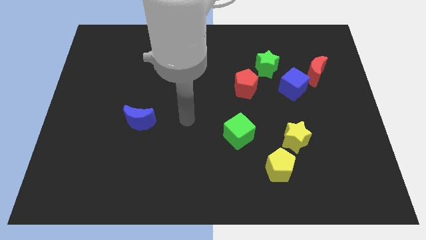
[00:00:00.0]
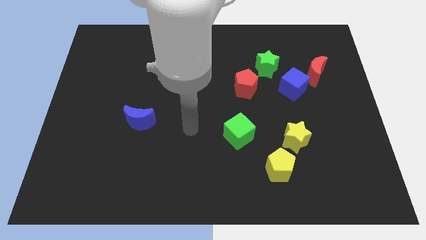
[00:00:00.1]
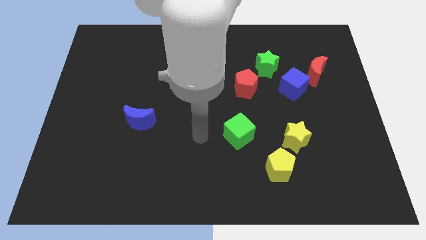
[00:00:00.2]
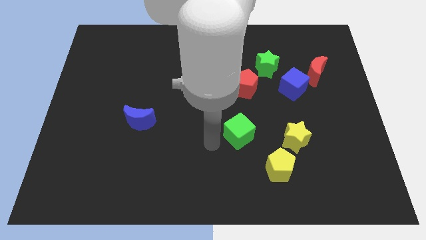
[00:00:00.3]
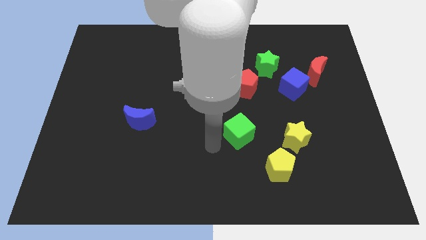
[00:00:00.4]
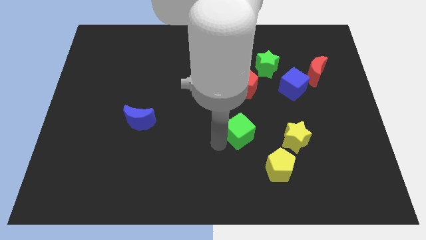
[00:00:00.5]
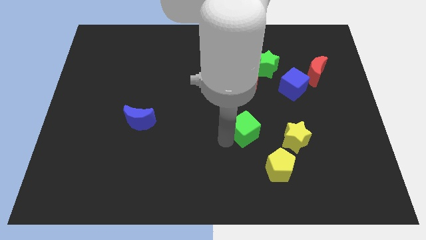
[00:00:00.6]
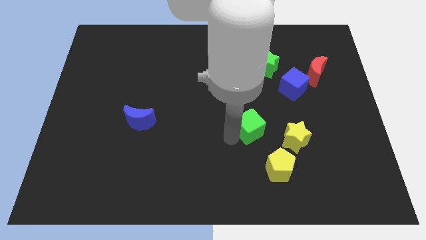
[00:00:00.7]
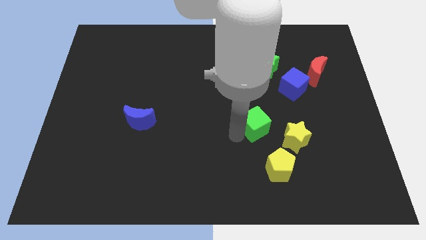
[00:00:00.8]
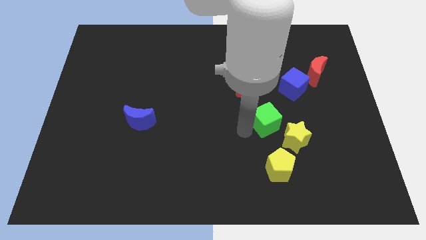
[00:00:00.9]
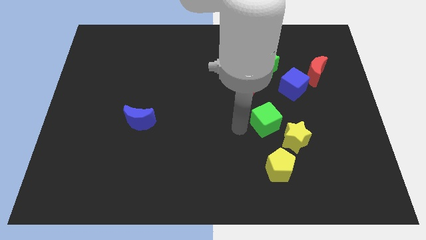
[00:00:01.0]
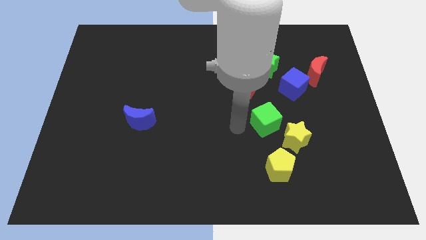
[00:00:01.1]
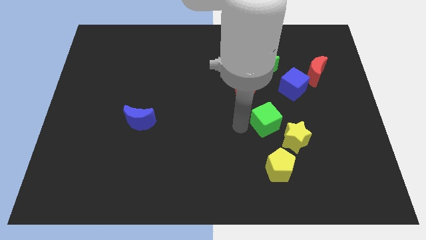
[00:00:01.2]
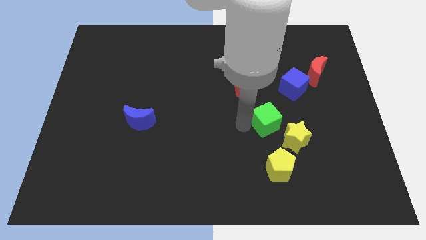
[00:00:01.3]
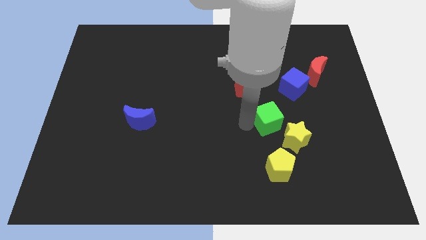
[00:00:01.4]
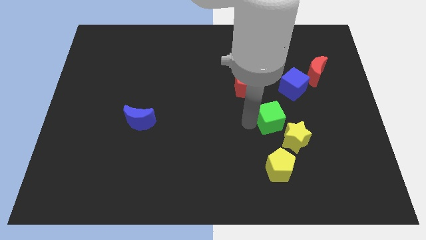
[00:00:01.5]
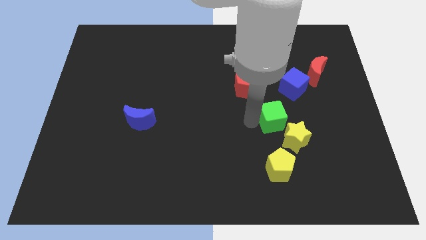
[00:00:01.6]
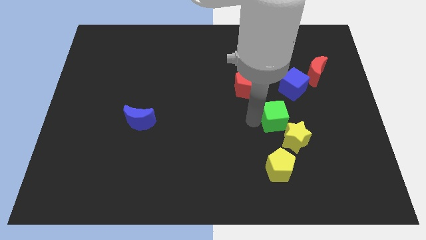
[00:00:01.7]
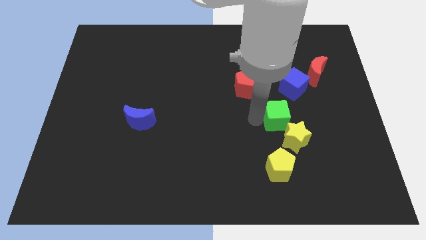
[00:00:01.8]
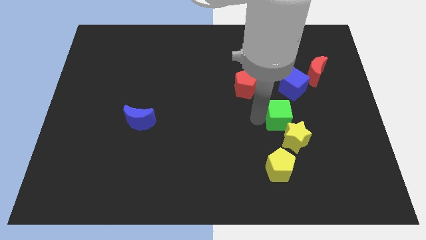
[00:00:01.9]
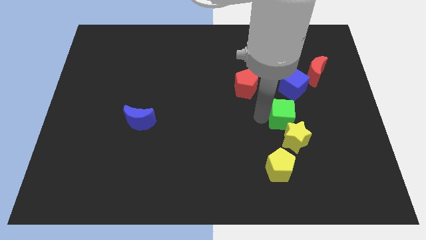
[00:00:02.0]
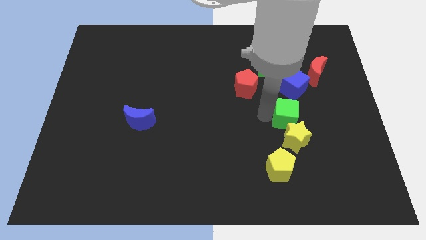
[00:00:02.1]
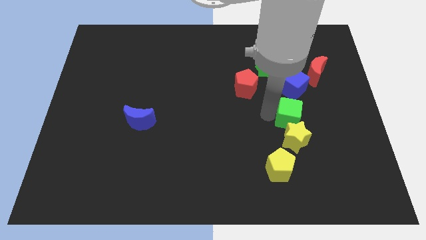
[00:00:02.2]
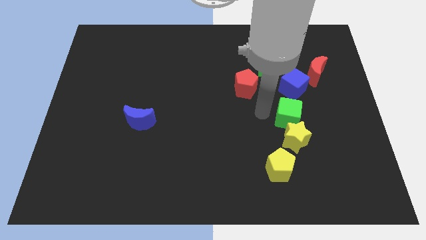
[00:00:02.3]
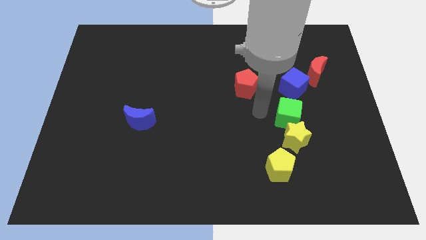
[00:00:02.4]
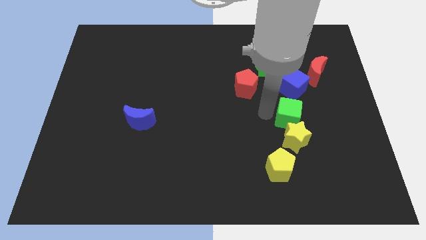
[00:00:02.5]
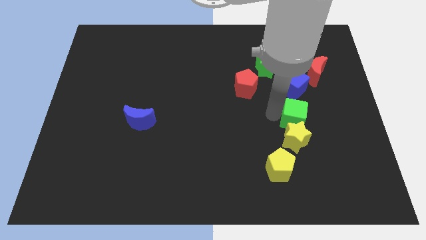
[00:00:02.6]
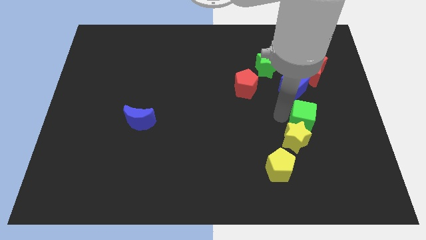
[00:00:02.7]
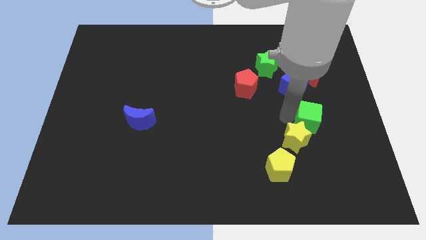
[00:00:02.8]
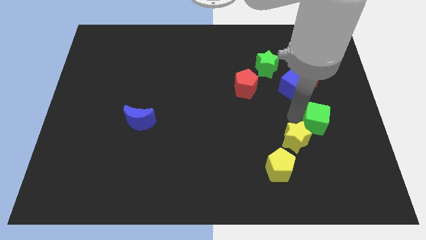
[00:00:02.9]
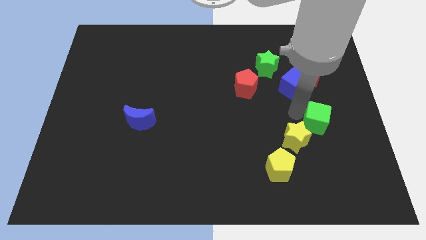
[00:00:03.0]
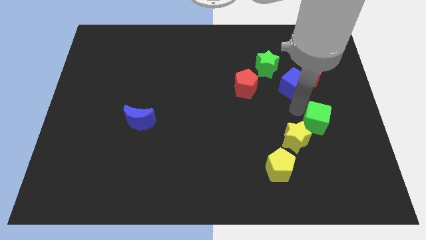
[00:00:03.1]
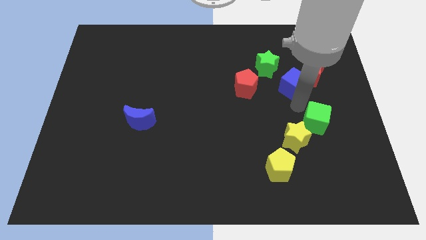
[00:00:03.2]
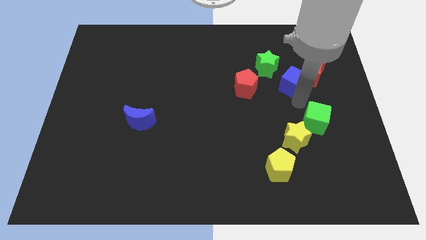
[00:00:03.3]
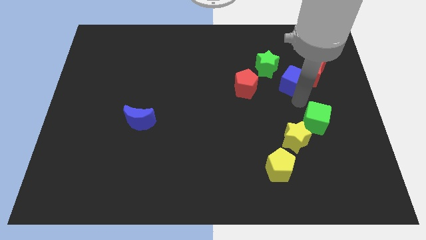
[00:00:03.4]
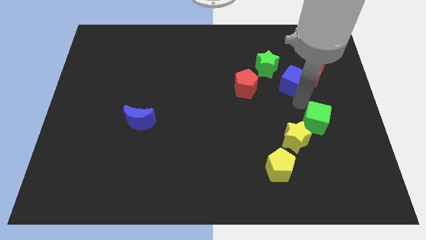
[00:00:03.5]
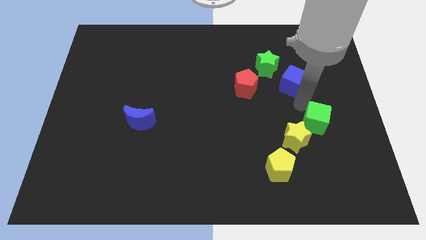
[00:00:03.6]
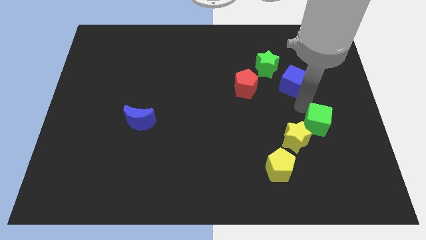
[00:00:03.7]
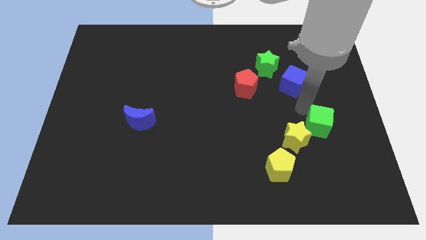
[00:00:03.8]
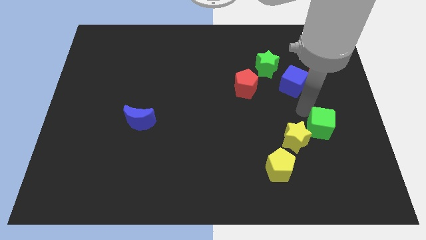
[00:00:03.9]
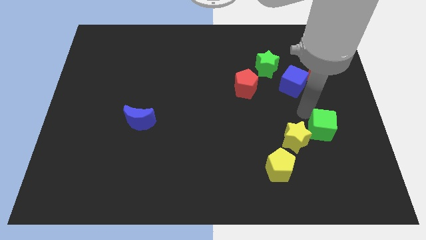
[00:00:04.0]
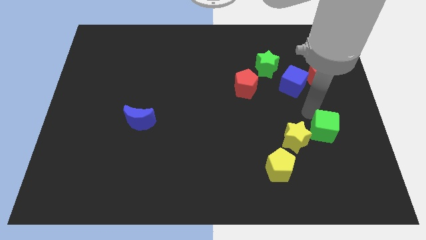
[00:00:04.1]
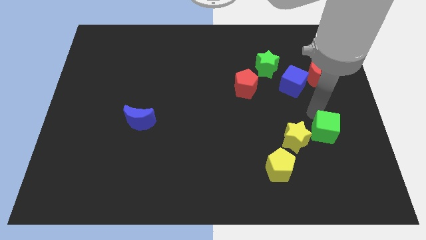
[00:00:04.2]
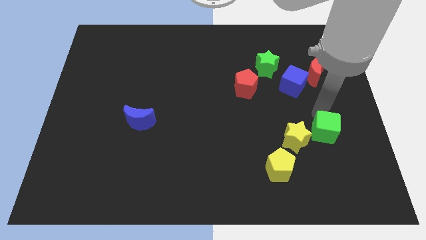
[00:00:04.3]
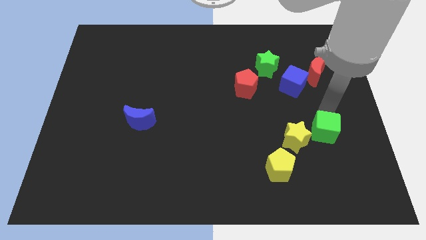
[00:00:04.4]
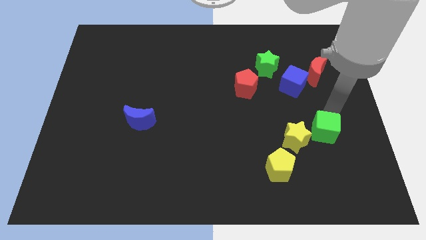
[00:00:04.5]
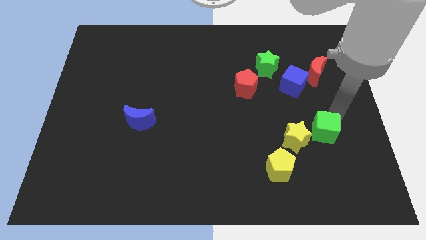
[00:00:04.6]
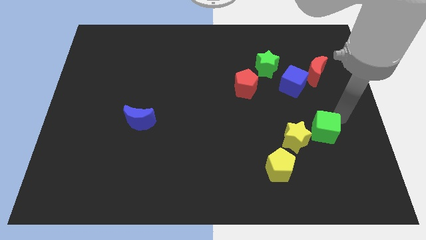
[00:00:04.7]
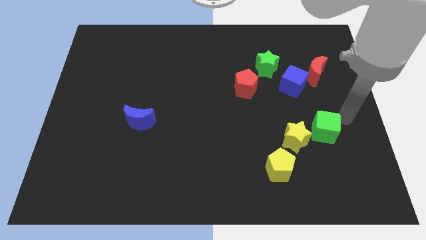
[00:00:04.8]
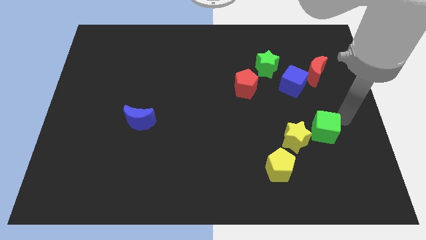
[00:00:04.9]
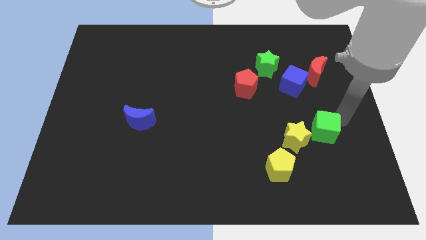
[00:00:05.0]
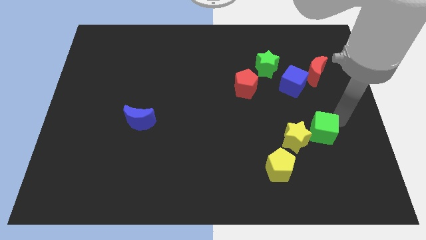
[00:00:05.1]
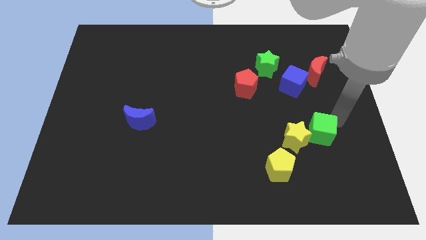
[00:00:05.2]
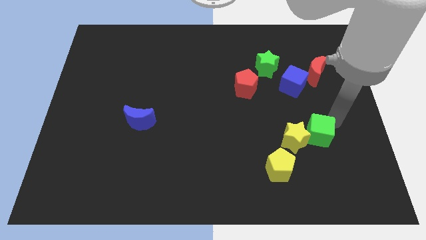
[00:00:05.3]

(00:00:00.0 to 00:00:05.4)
slide the green cube diagonally up and to the right of the yellow pentagon

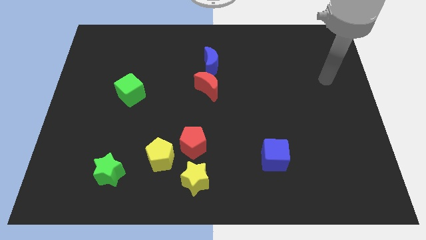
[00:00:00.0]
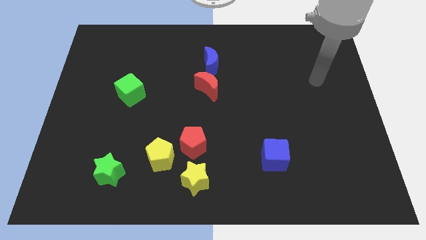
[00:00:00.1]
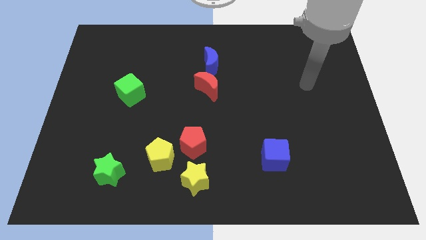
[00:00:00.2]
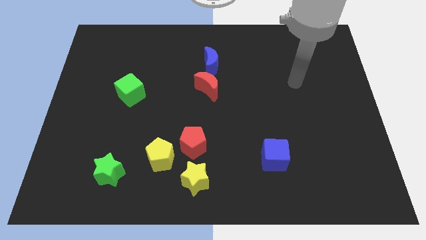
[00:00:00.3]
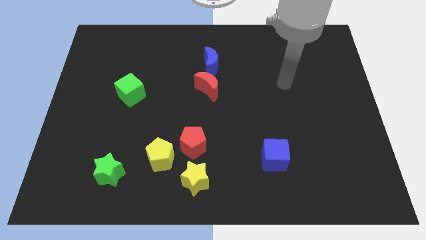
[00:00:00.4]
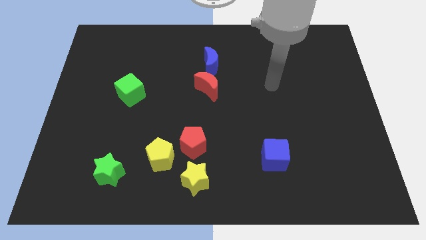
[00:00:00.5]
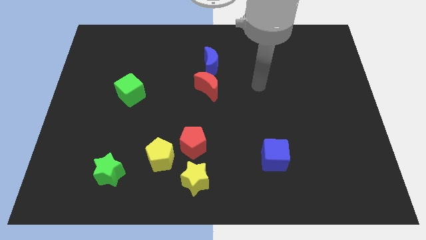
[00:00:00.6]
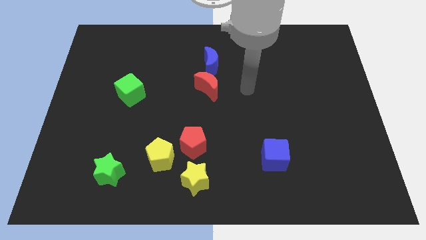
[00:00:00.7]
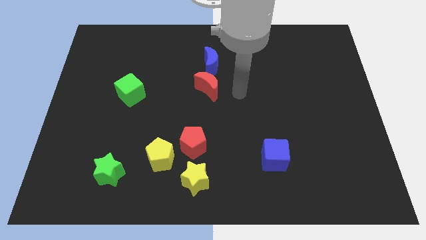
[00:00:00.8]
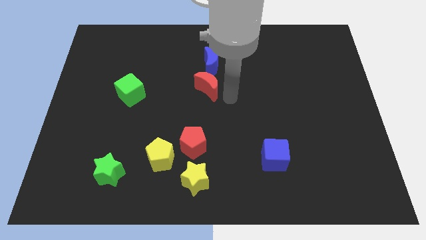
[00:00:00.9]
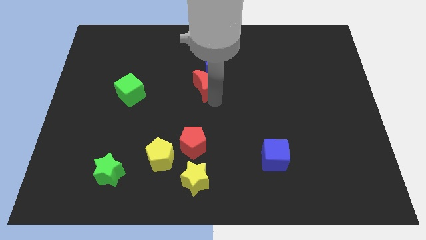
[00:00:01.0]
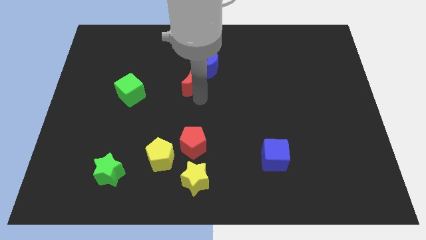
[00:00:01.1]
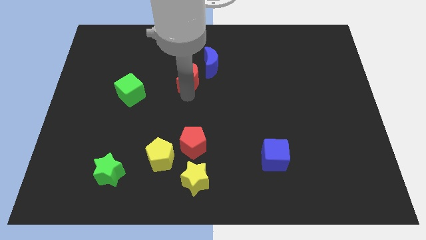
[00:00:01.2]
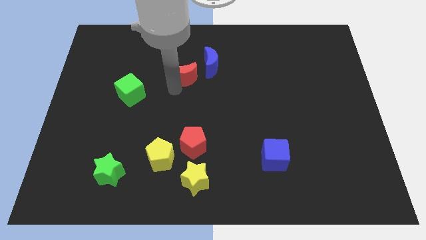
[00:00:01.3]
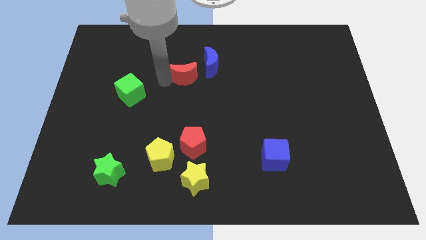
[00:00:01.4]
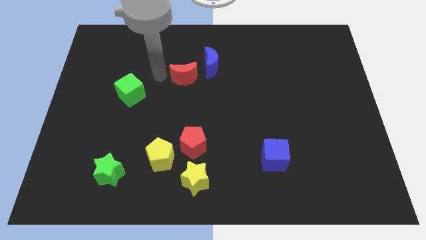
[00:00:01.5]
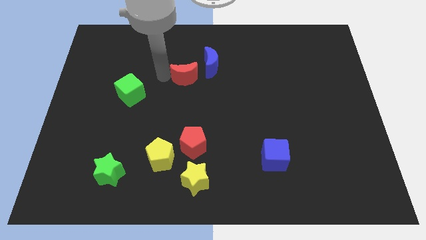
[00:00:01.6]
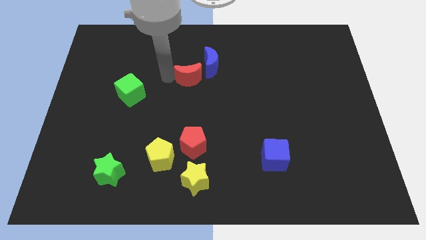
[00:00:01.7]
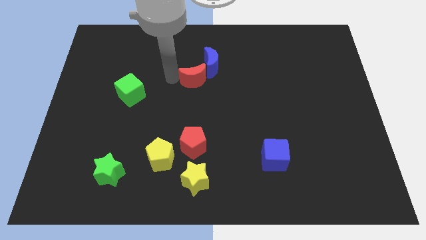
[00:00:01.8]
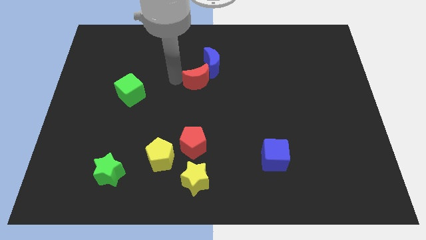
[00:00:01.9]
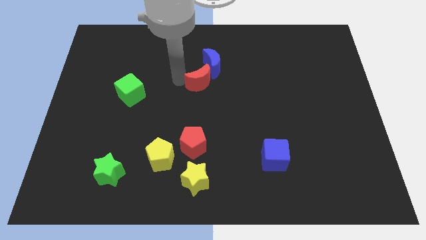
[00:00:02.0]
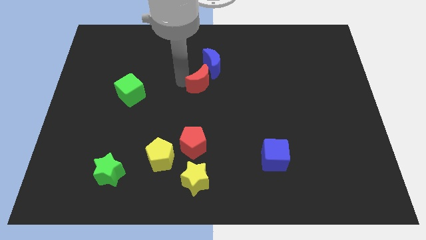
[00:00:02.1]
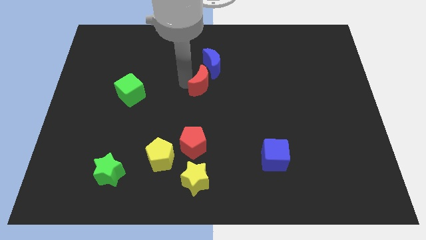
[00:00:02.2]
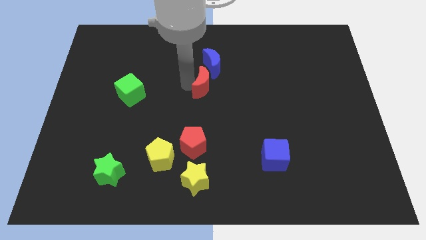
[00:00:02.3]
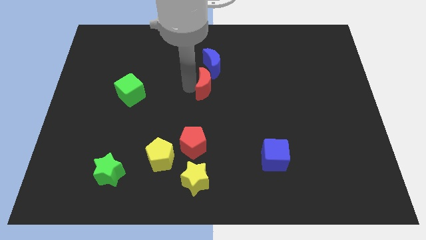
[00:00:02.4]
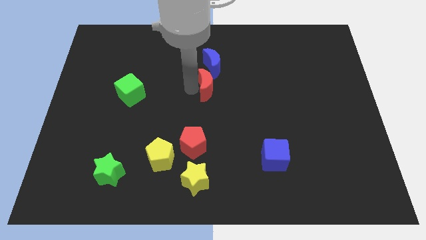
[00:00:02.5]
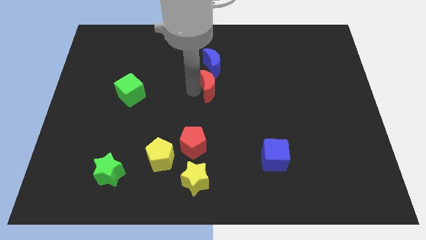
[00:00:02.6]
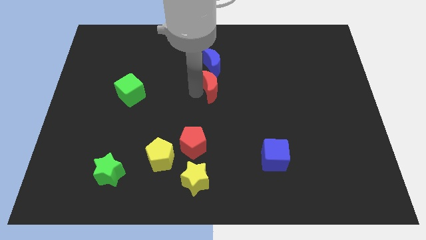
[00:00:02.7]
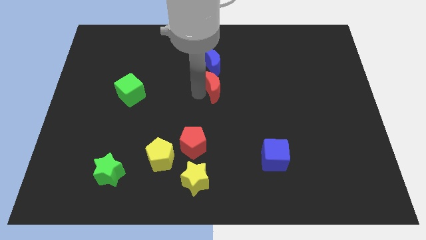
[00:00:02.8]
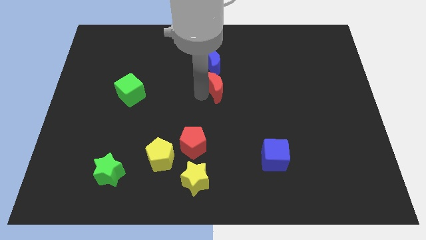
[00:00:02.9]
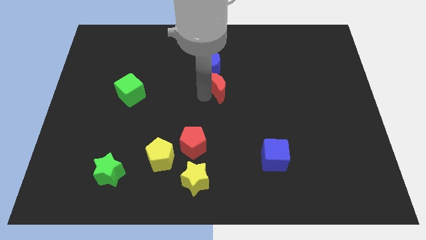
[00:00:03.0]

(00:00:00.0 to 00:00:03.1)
move the red moon diagonally down and to the right of the blue moon
